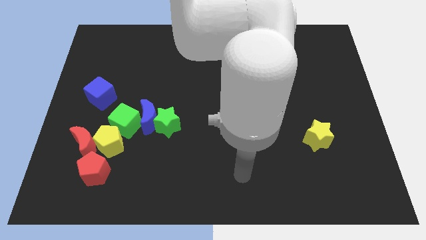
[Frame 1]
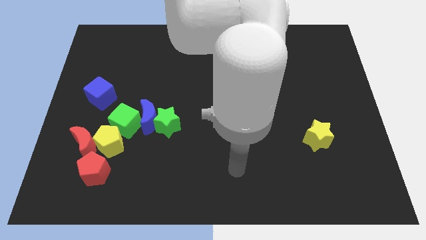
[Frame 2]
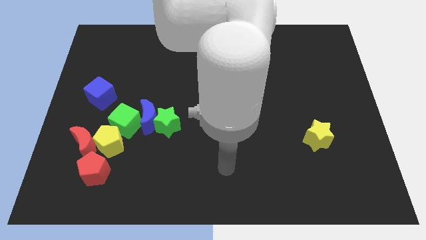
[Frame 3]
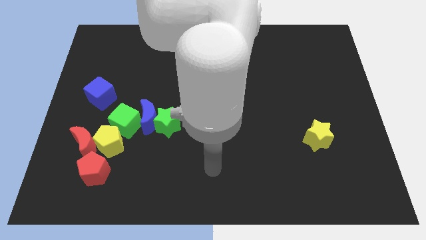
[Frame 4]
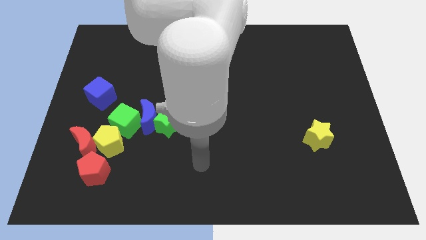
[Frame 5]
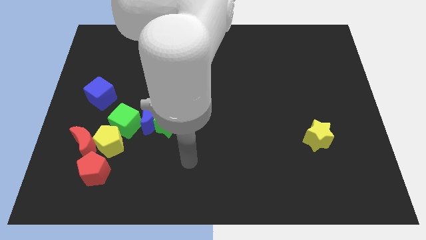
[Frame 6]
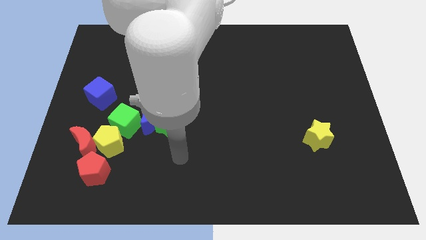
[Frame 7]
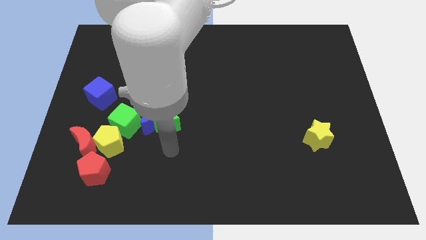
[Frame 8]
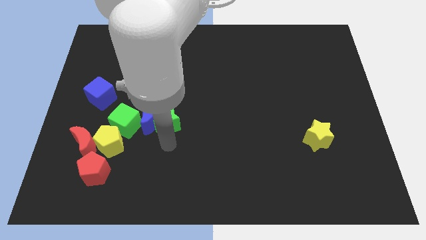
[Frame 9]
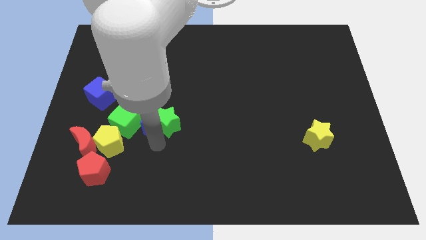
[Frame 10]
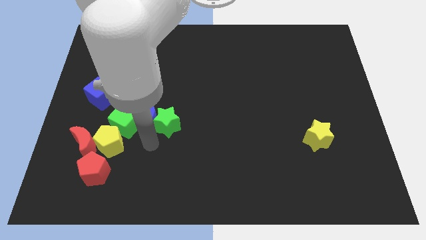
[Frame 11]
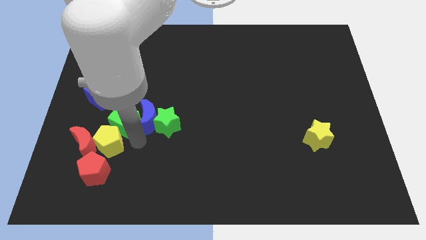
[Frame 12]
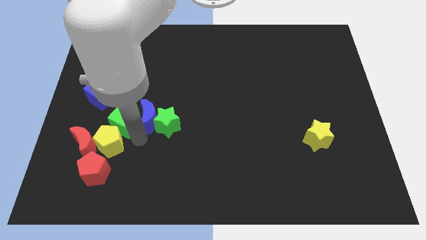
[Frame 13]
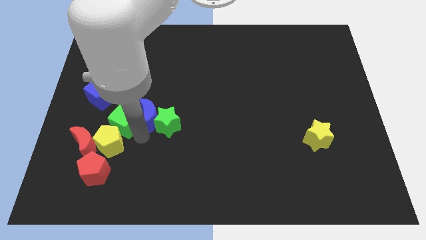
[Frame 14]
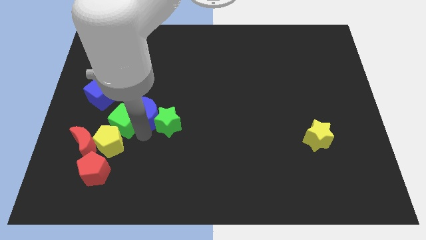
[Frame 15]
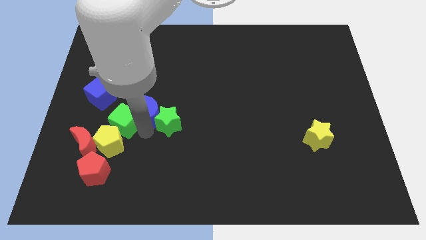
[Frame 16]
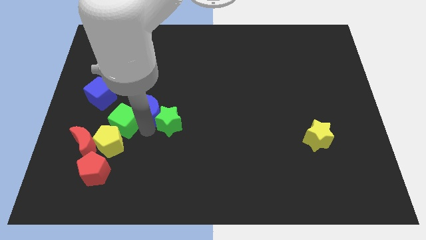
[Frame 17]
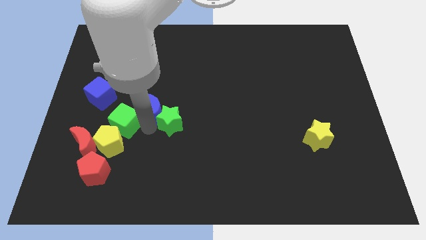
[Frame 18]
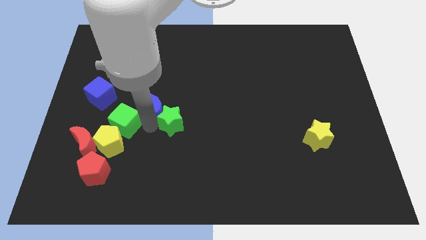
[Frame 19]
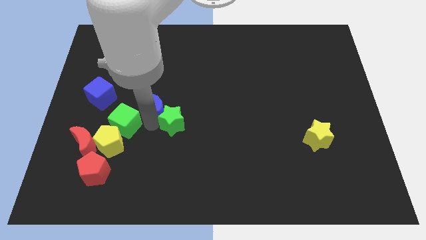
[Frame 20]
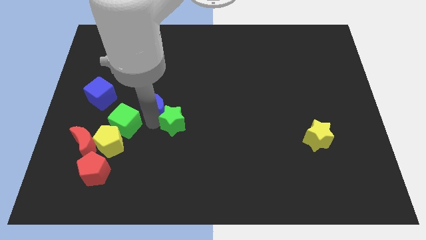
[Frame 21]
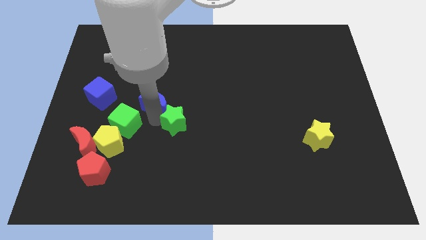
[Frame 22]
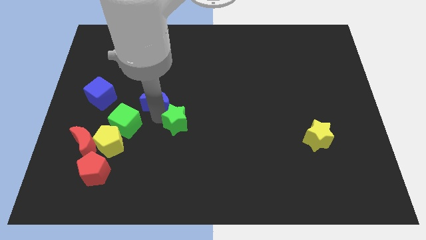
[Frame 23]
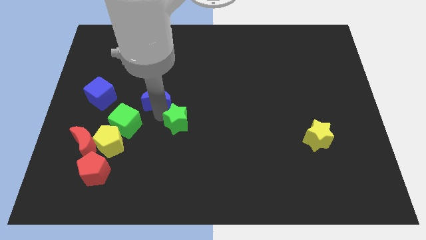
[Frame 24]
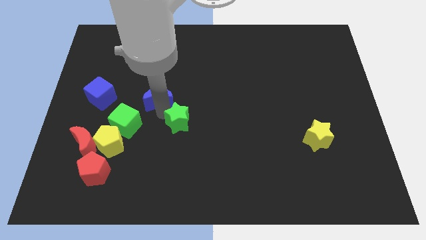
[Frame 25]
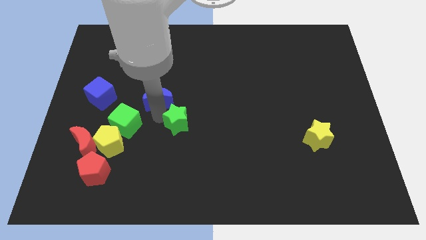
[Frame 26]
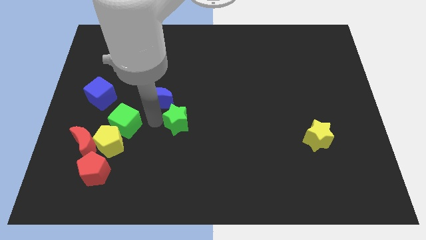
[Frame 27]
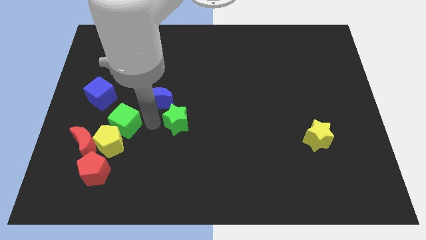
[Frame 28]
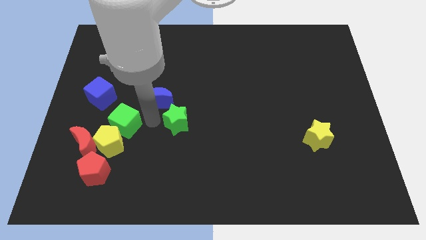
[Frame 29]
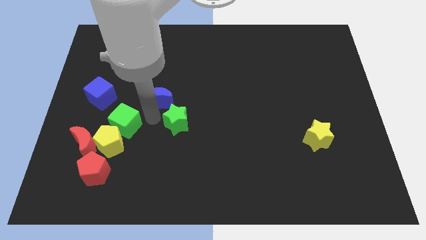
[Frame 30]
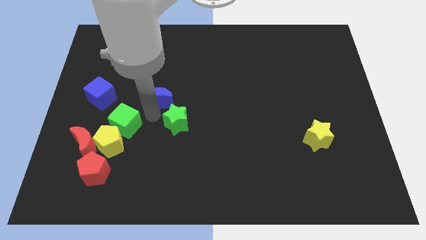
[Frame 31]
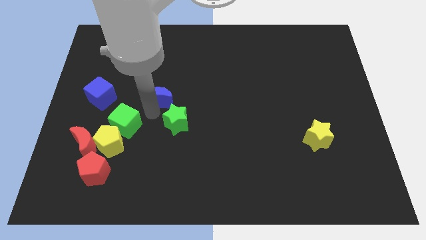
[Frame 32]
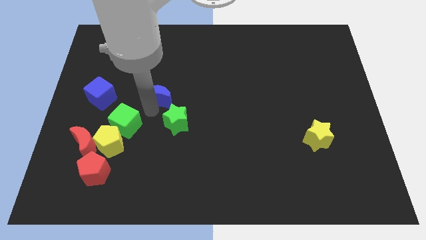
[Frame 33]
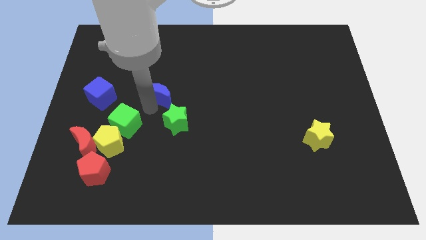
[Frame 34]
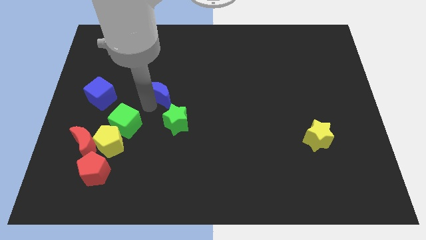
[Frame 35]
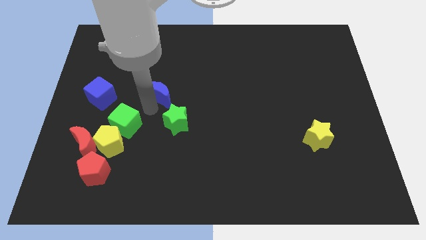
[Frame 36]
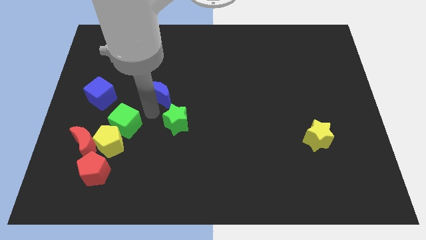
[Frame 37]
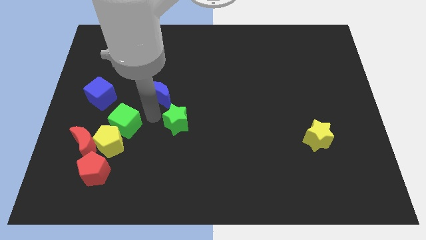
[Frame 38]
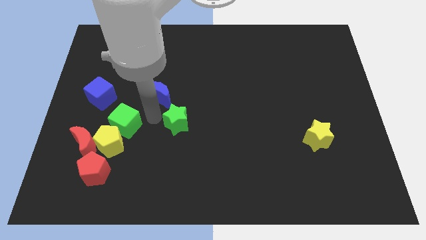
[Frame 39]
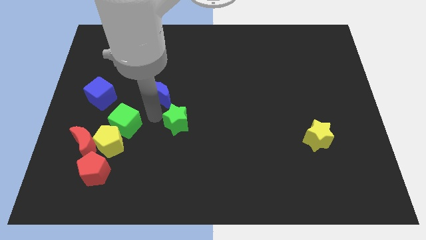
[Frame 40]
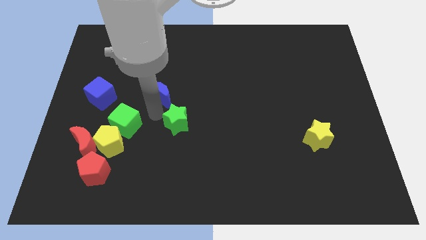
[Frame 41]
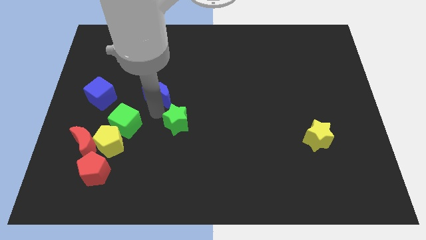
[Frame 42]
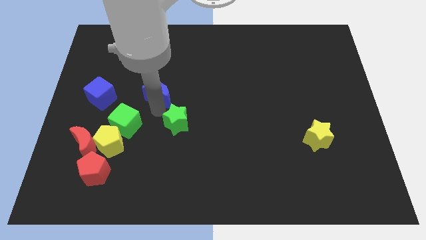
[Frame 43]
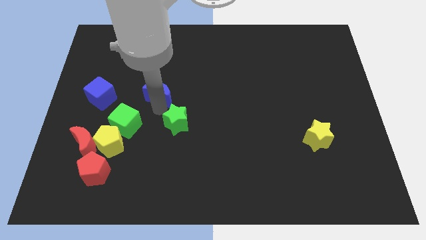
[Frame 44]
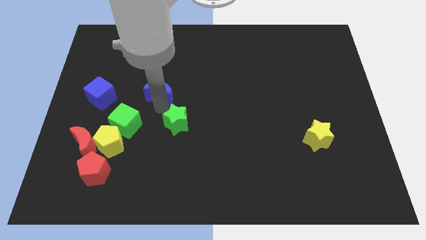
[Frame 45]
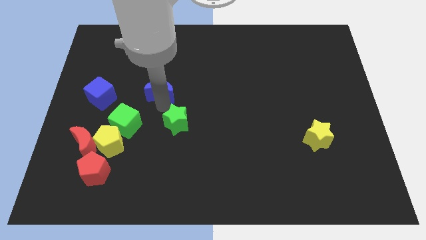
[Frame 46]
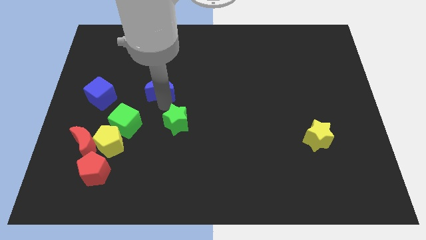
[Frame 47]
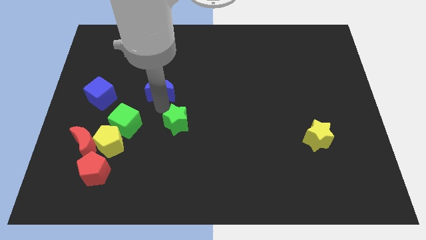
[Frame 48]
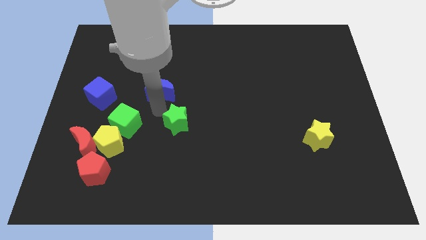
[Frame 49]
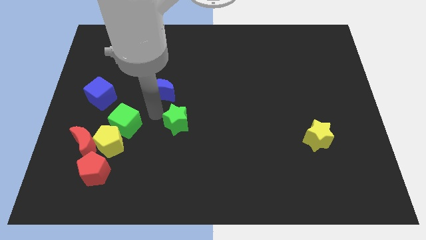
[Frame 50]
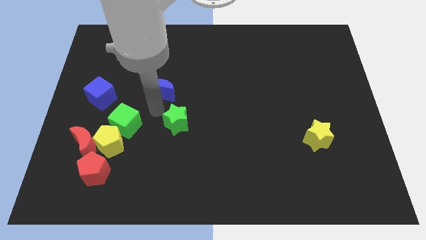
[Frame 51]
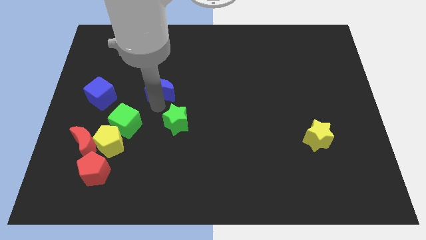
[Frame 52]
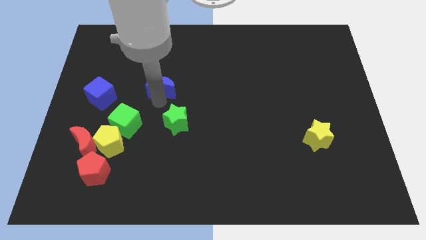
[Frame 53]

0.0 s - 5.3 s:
pull the blue moon apart from the green star and green cube

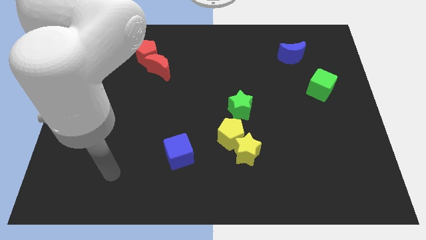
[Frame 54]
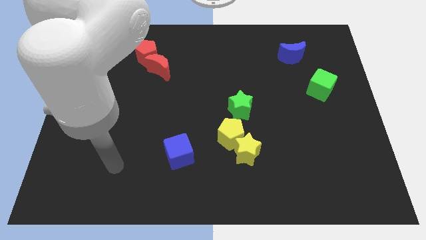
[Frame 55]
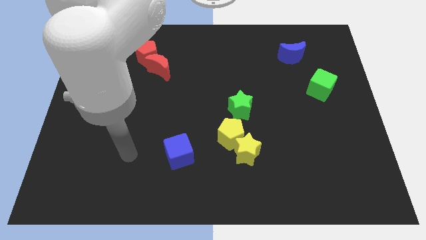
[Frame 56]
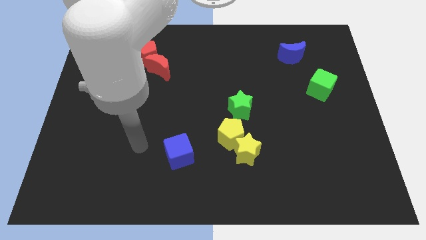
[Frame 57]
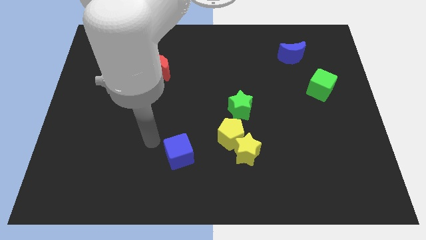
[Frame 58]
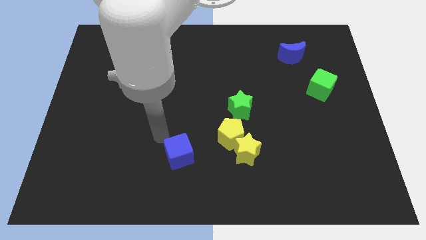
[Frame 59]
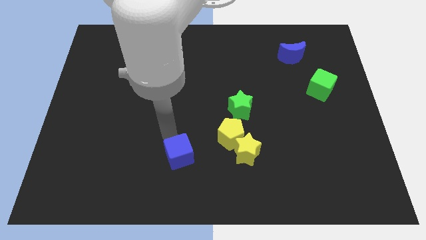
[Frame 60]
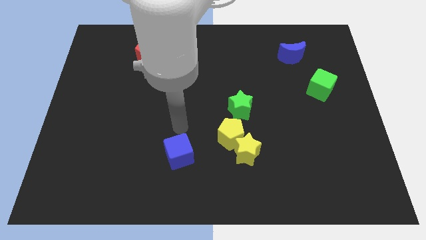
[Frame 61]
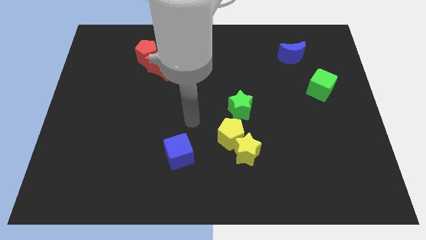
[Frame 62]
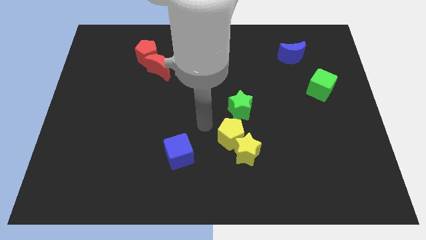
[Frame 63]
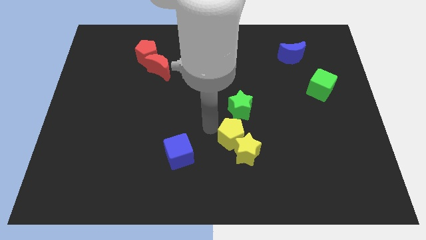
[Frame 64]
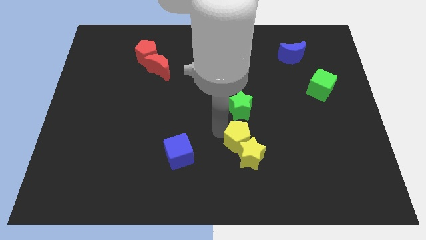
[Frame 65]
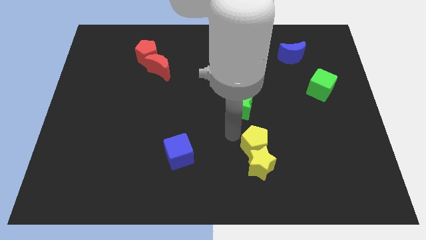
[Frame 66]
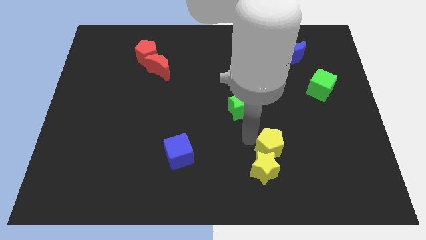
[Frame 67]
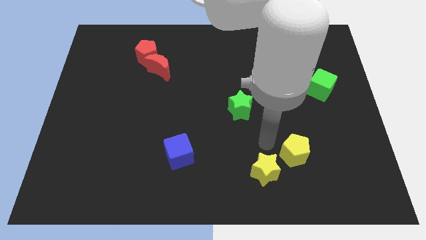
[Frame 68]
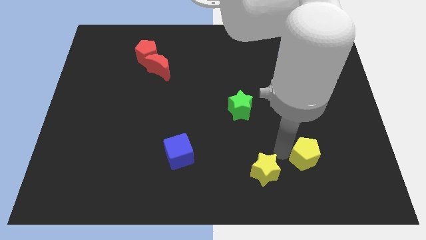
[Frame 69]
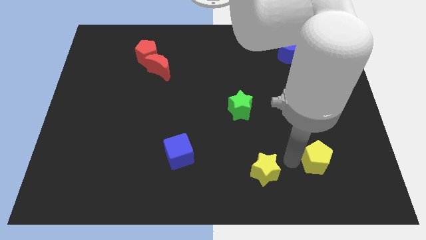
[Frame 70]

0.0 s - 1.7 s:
separate the yellow star from the yellow pentagon

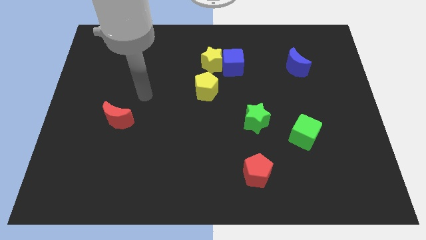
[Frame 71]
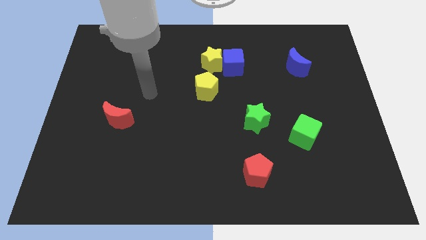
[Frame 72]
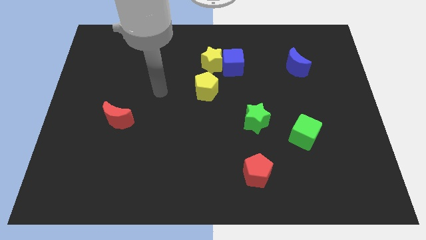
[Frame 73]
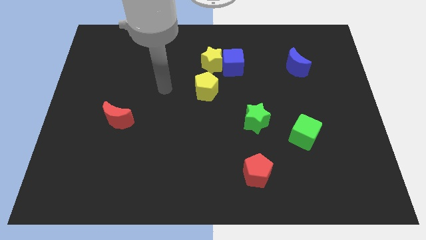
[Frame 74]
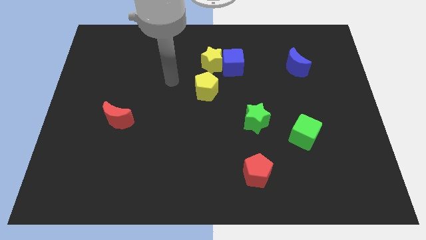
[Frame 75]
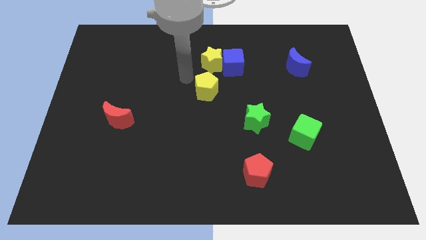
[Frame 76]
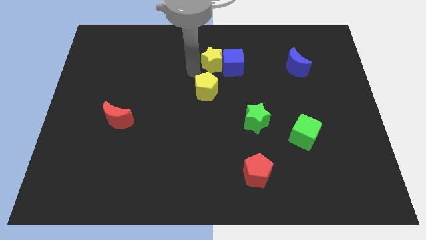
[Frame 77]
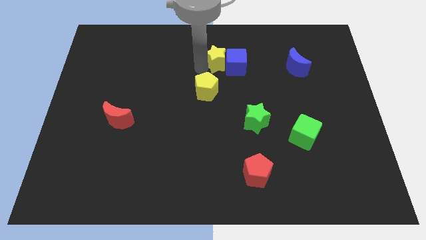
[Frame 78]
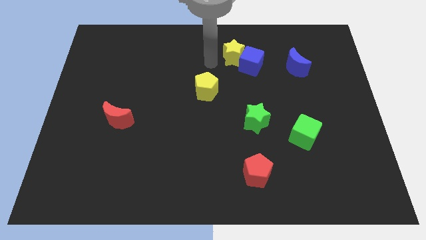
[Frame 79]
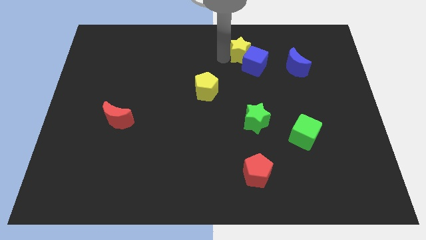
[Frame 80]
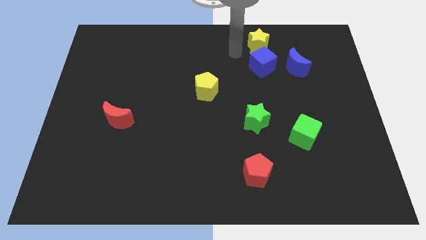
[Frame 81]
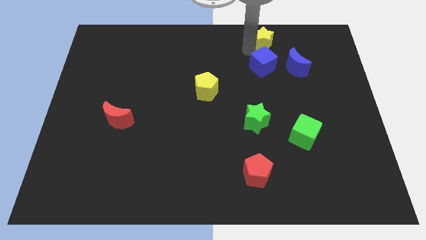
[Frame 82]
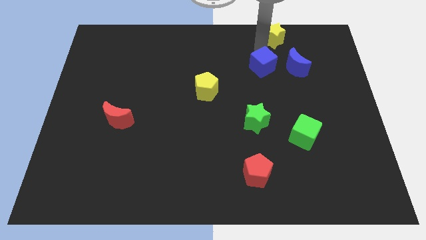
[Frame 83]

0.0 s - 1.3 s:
separate the blue cube from the yellow star

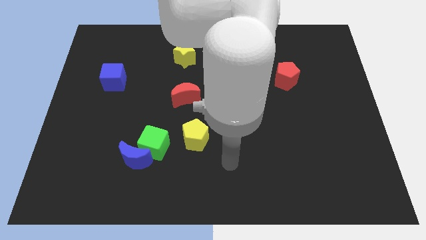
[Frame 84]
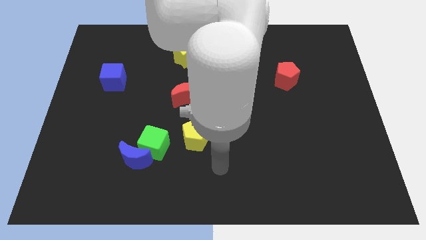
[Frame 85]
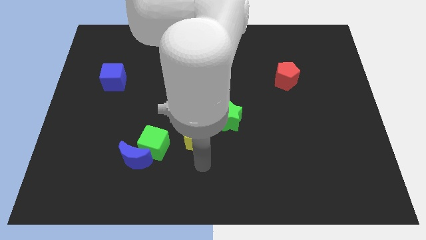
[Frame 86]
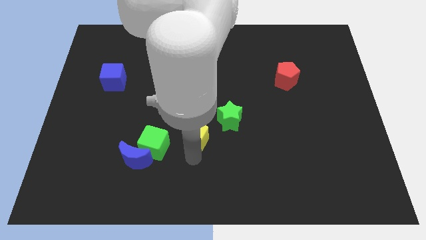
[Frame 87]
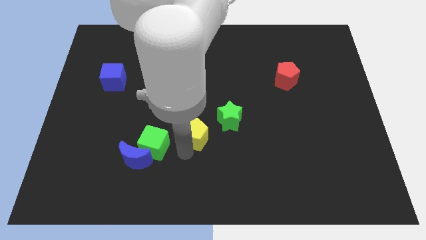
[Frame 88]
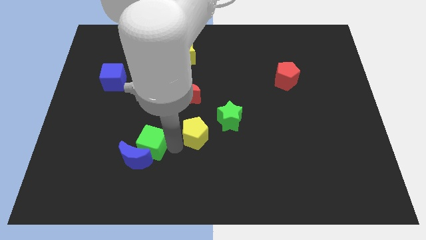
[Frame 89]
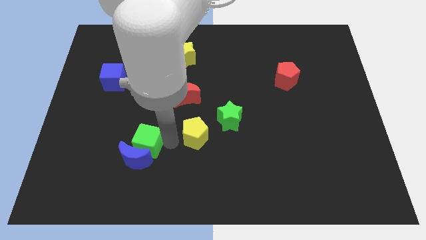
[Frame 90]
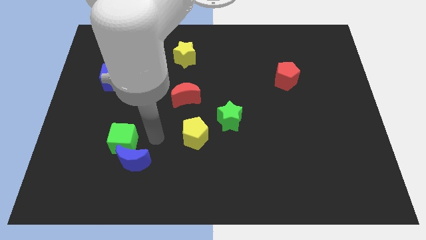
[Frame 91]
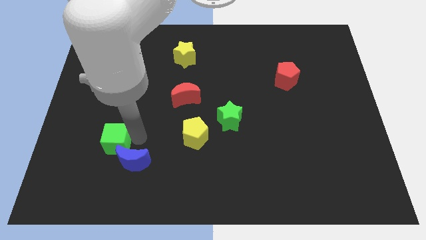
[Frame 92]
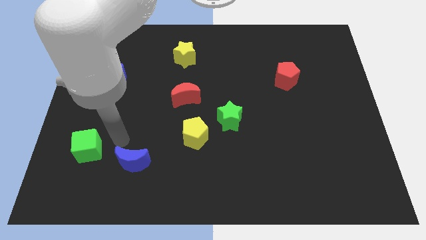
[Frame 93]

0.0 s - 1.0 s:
separate the blue moon from the green cube

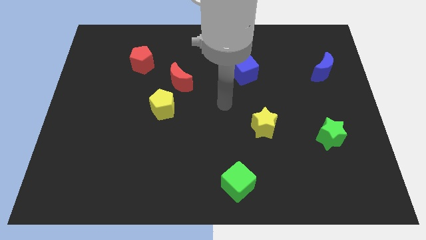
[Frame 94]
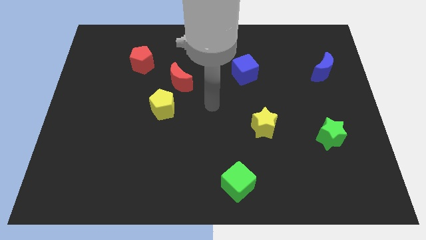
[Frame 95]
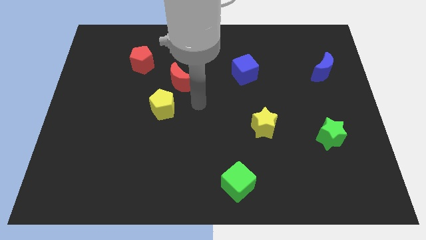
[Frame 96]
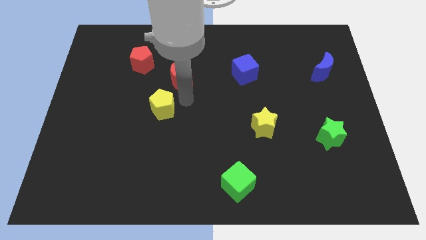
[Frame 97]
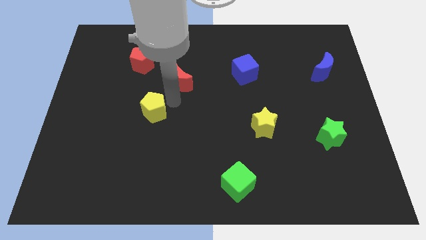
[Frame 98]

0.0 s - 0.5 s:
separate the red moon from the yellow pentagon
